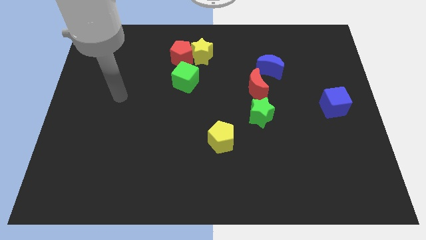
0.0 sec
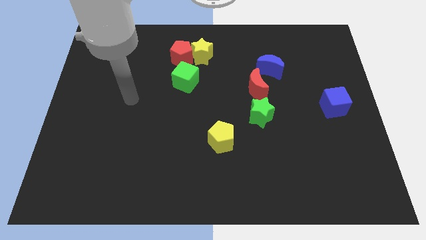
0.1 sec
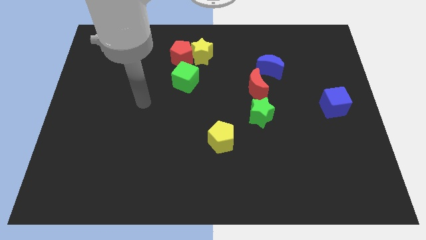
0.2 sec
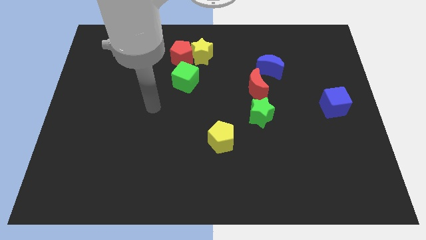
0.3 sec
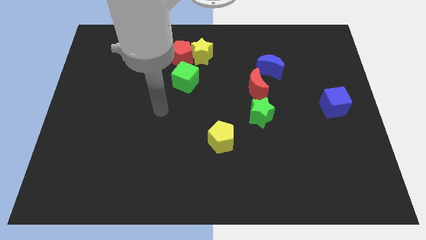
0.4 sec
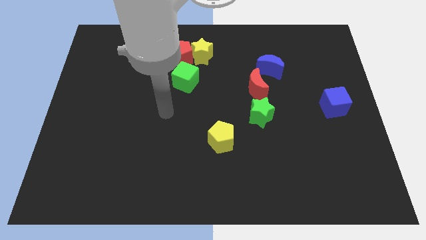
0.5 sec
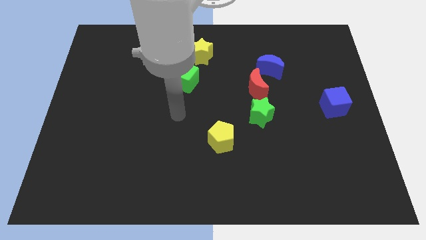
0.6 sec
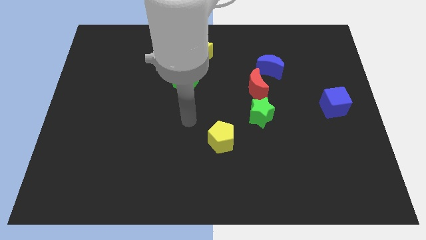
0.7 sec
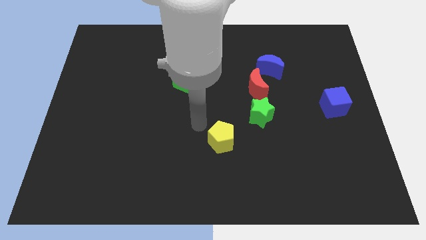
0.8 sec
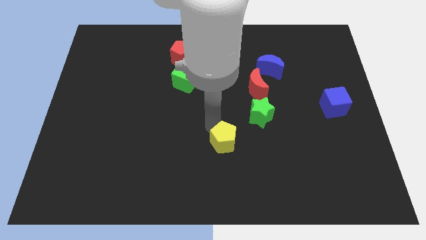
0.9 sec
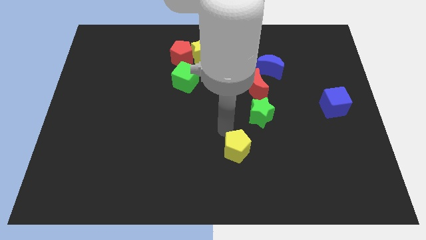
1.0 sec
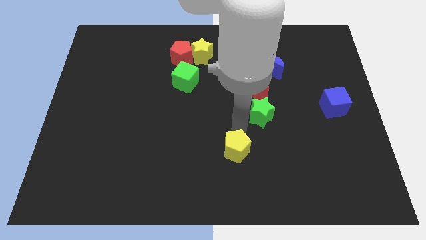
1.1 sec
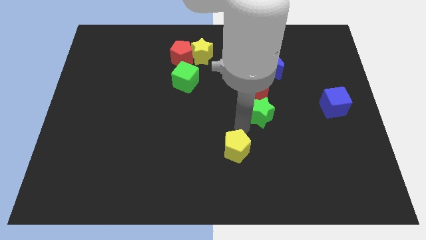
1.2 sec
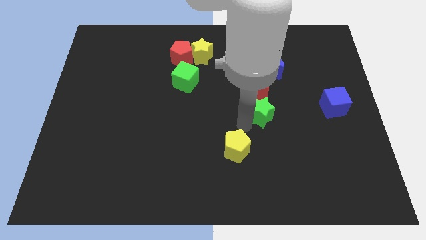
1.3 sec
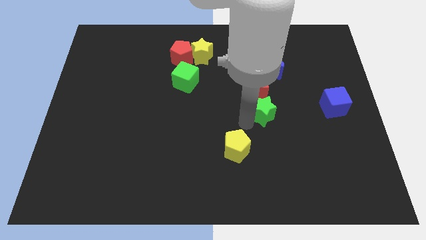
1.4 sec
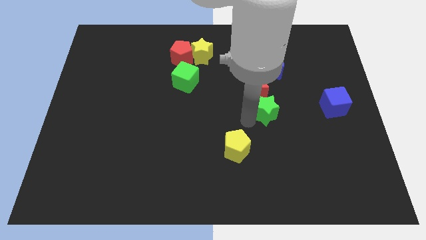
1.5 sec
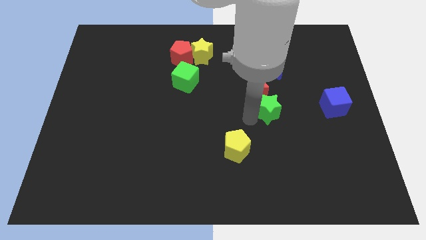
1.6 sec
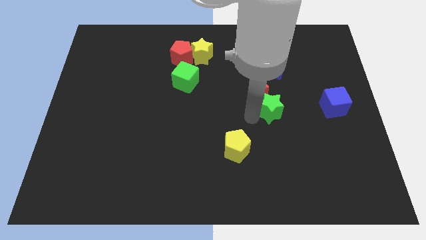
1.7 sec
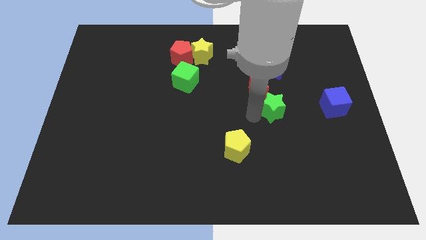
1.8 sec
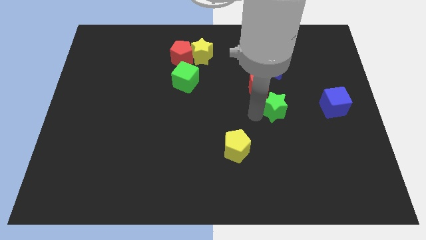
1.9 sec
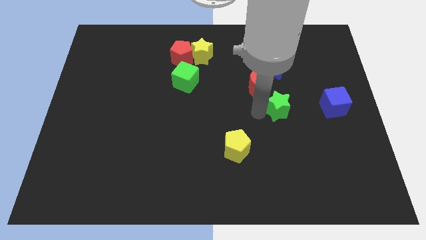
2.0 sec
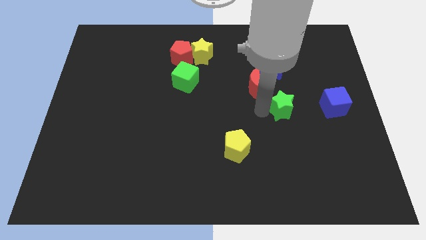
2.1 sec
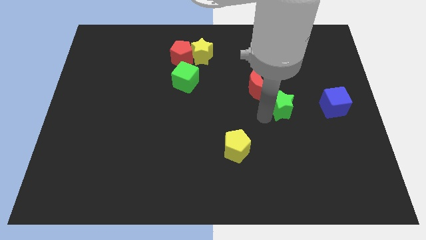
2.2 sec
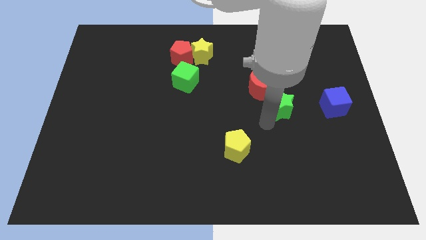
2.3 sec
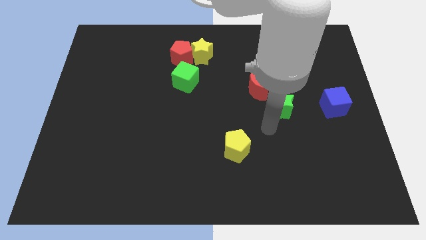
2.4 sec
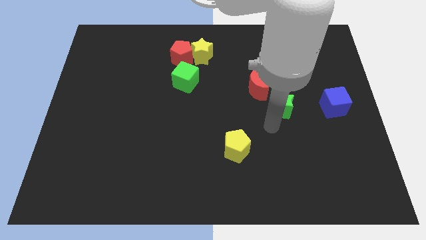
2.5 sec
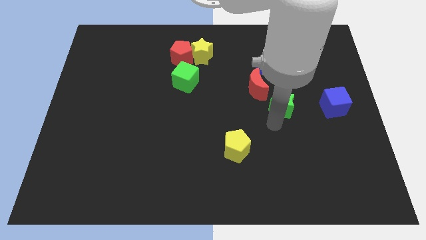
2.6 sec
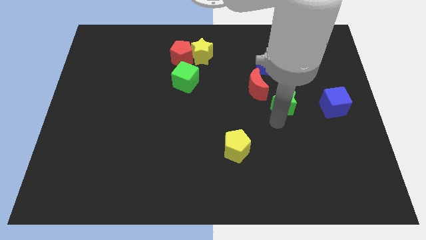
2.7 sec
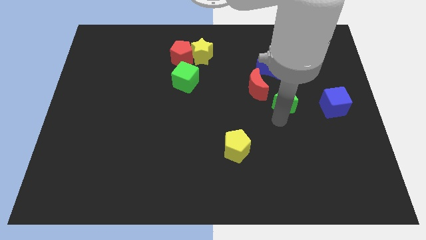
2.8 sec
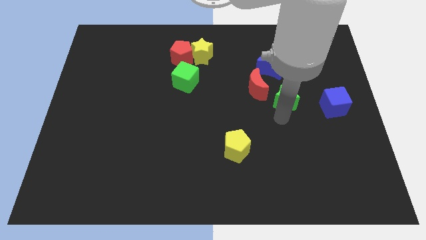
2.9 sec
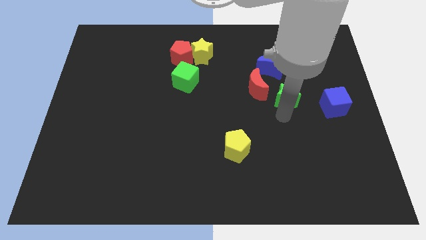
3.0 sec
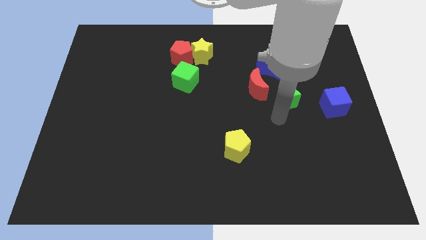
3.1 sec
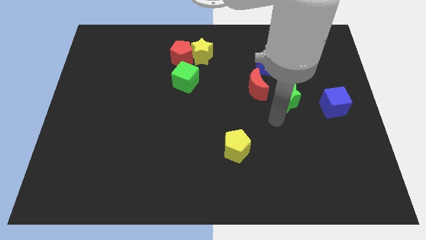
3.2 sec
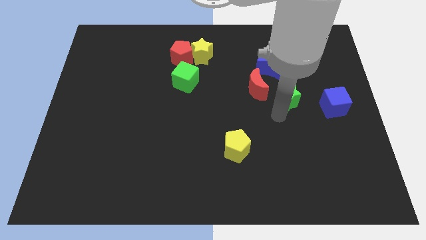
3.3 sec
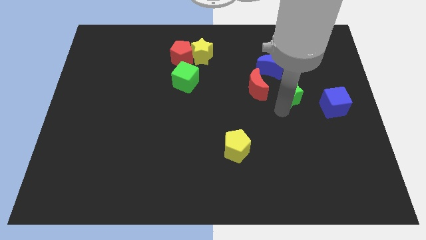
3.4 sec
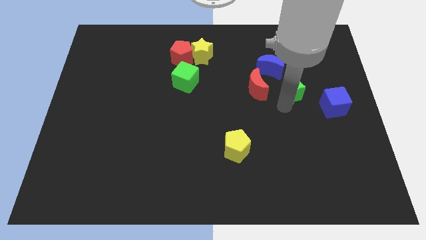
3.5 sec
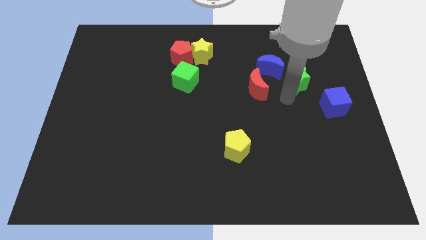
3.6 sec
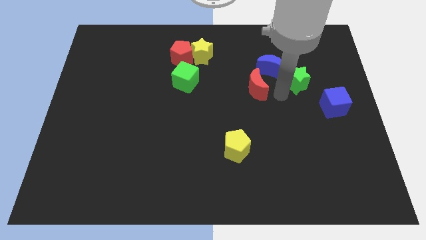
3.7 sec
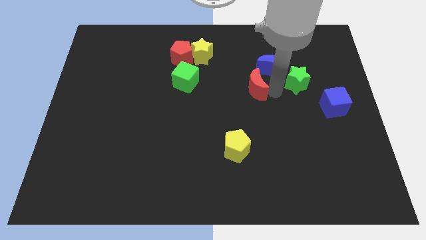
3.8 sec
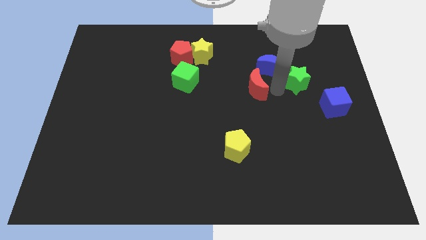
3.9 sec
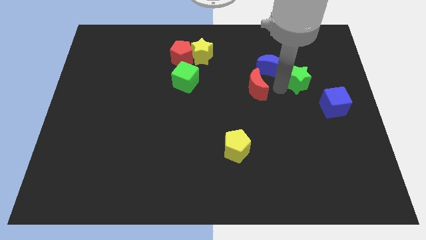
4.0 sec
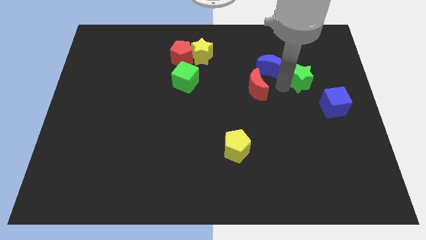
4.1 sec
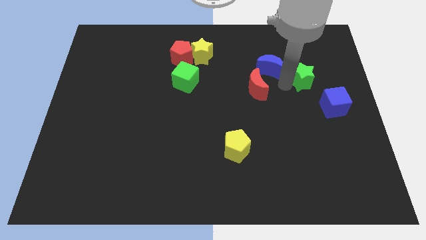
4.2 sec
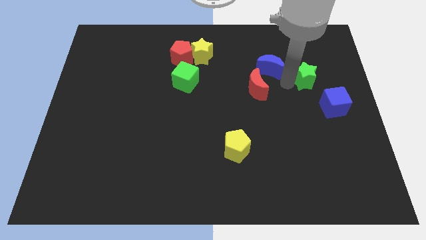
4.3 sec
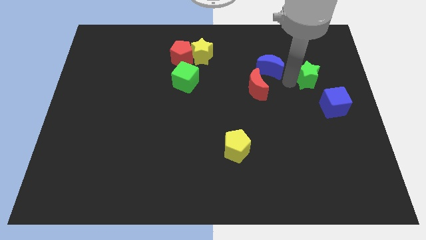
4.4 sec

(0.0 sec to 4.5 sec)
put the green star above the blue cube

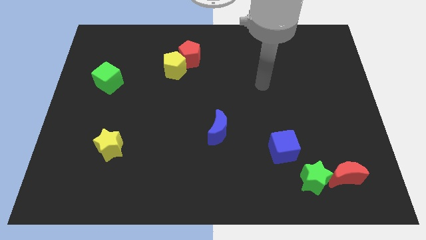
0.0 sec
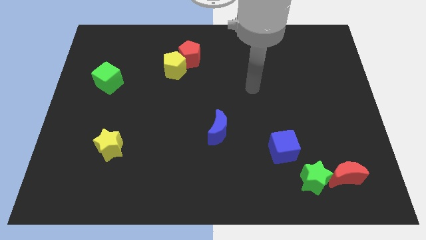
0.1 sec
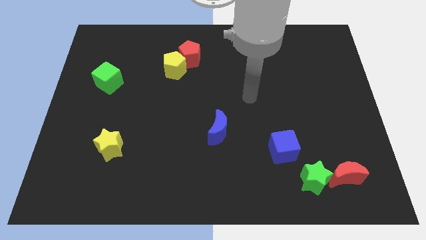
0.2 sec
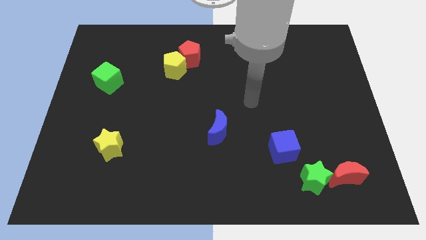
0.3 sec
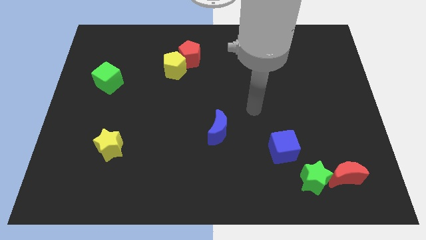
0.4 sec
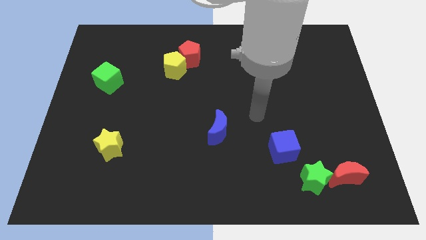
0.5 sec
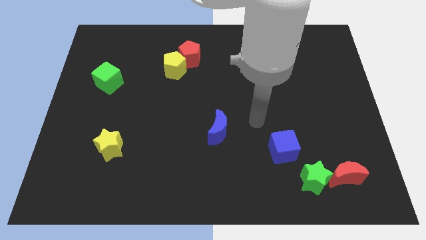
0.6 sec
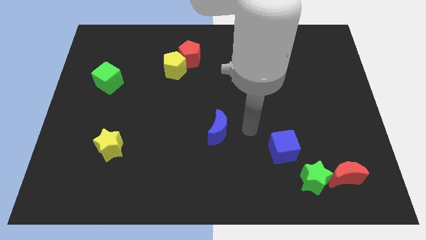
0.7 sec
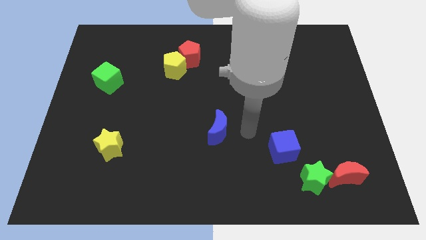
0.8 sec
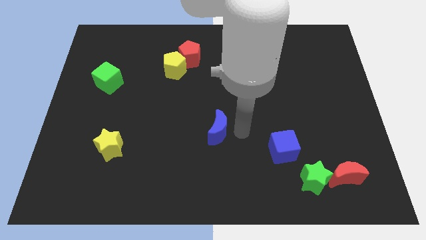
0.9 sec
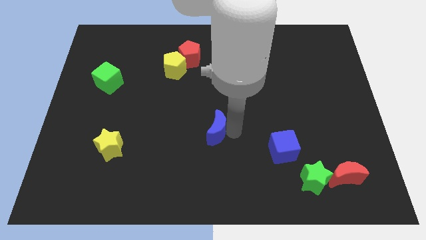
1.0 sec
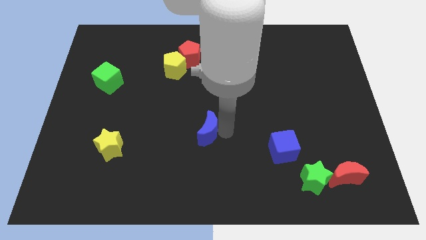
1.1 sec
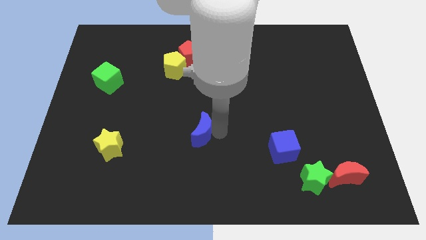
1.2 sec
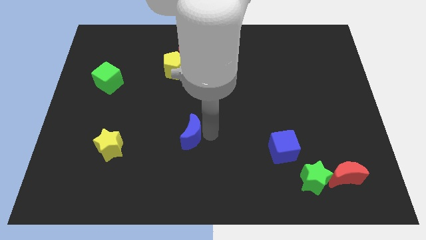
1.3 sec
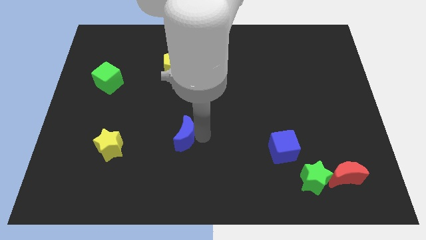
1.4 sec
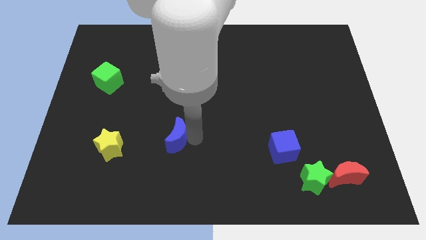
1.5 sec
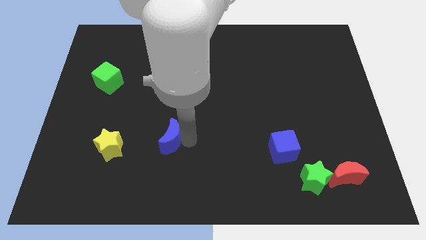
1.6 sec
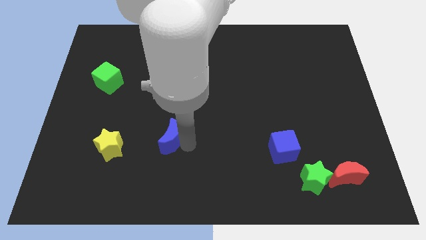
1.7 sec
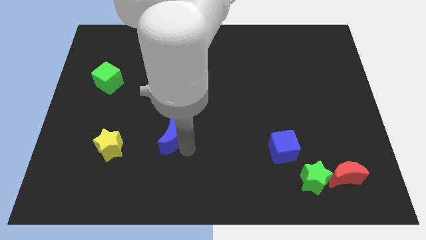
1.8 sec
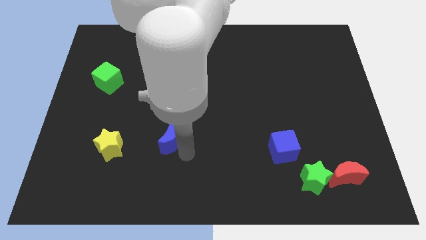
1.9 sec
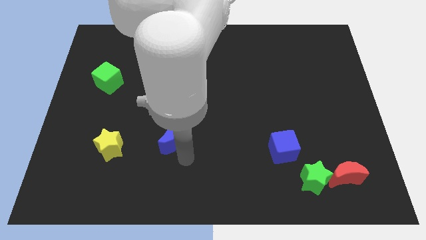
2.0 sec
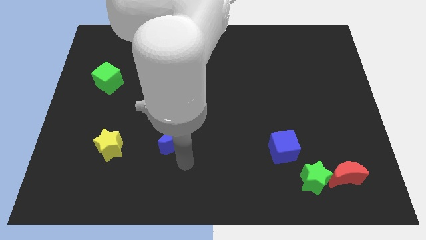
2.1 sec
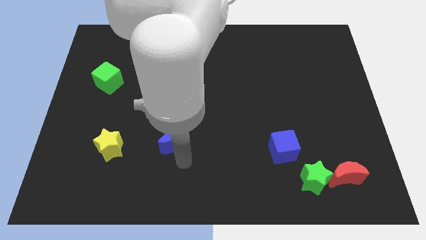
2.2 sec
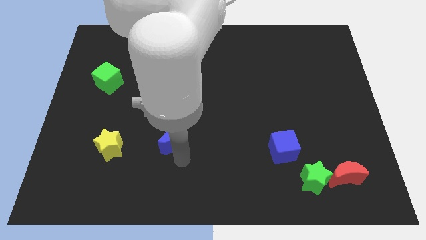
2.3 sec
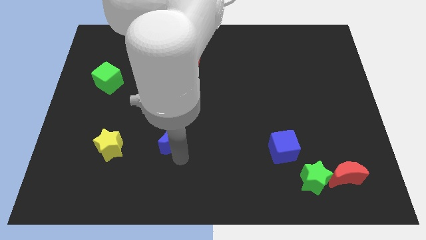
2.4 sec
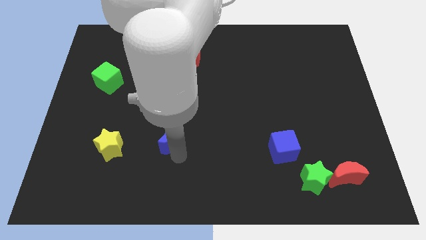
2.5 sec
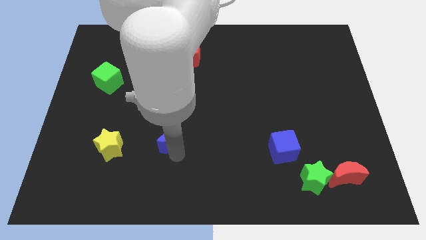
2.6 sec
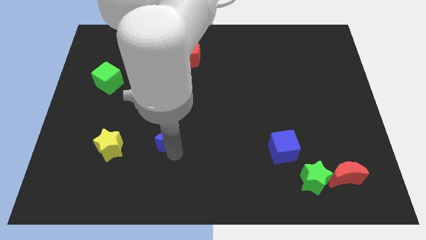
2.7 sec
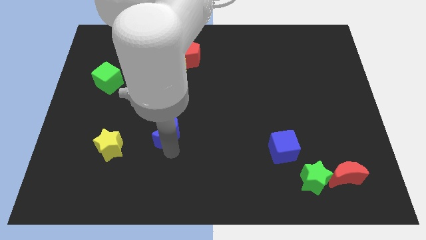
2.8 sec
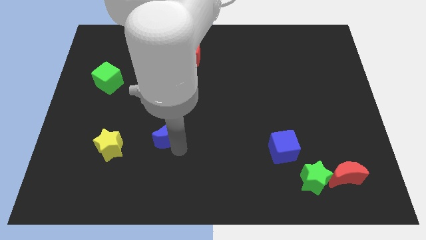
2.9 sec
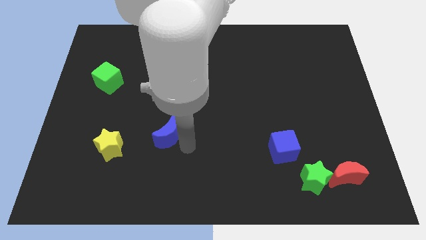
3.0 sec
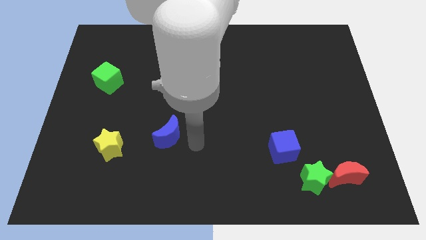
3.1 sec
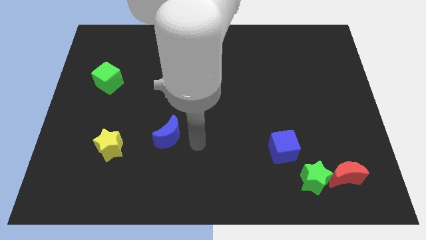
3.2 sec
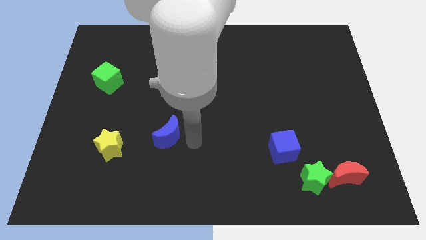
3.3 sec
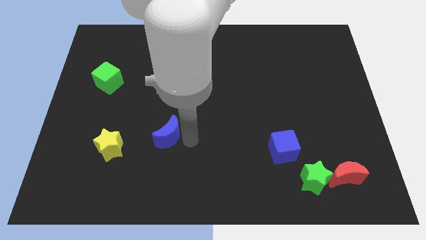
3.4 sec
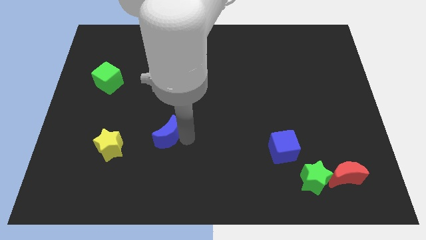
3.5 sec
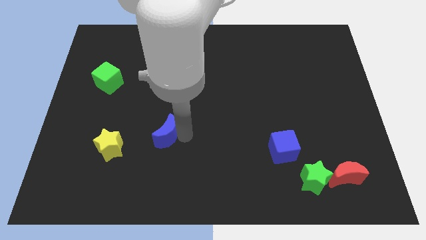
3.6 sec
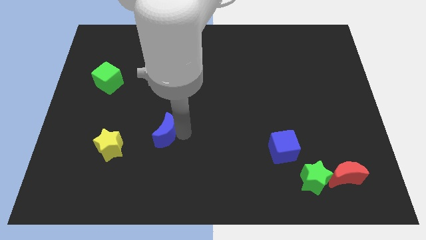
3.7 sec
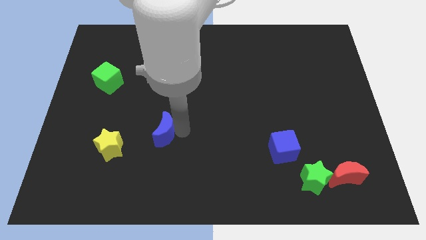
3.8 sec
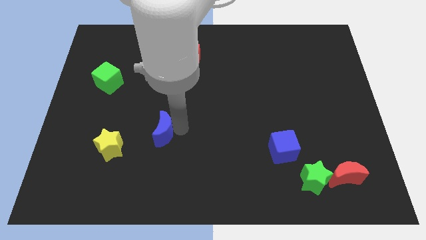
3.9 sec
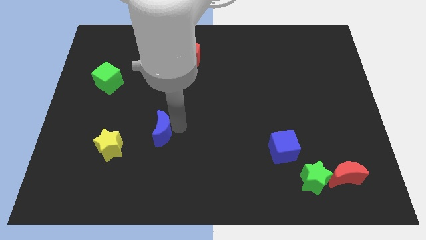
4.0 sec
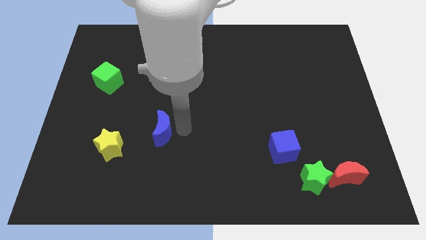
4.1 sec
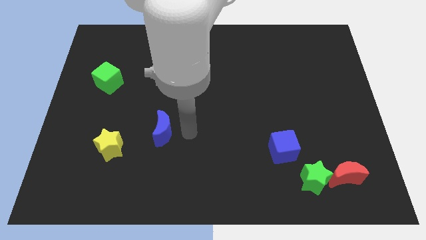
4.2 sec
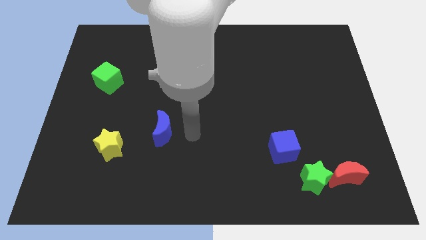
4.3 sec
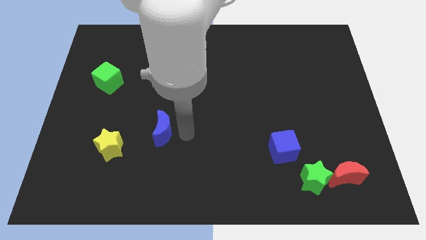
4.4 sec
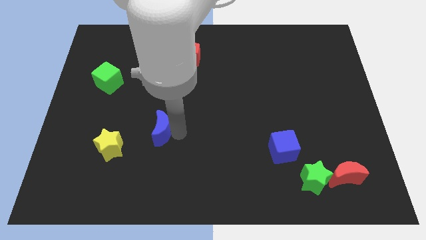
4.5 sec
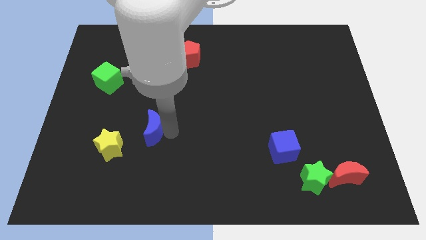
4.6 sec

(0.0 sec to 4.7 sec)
move the blue moon diagonally up and to the right of the yellow star
